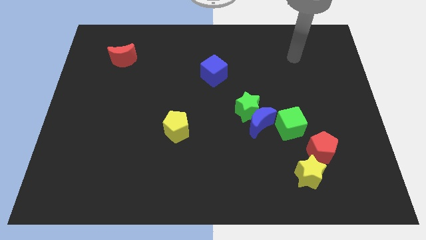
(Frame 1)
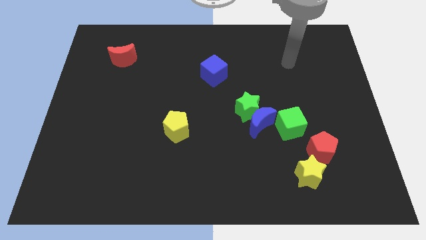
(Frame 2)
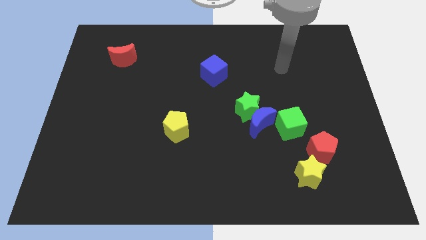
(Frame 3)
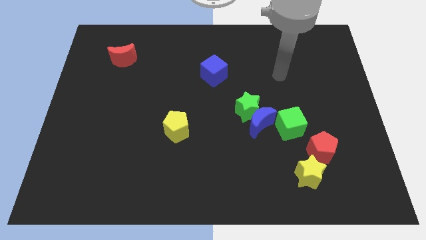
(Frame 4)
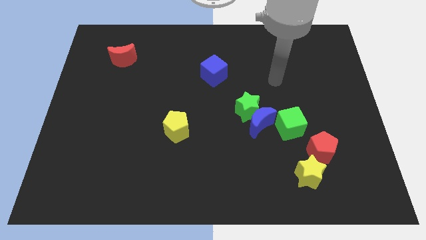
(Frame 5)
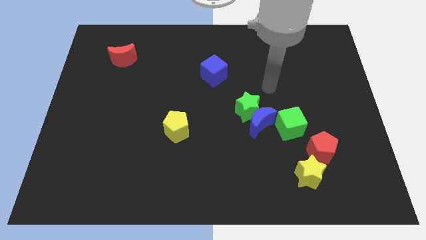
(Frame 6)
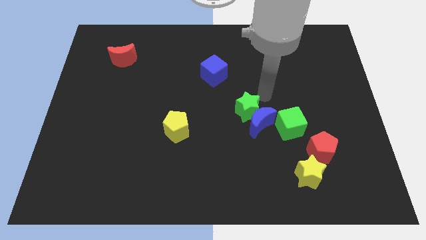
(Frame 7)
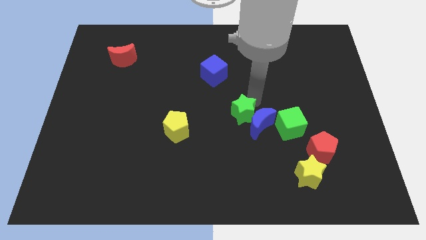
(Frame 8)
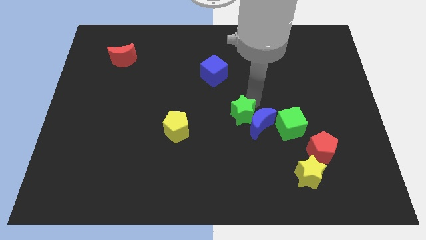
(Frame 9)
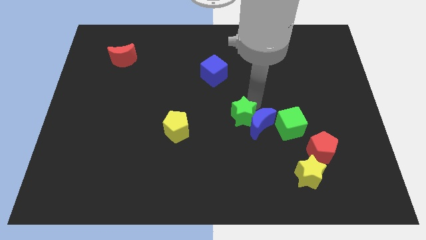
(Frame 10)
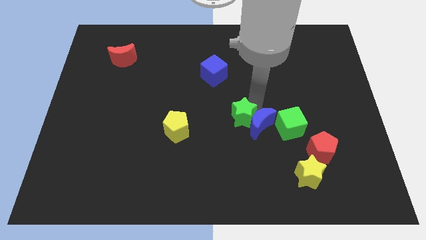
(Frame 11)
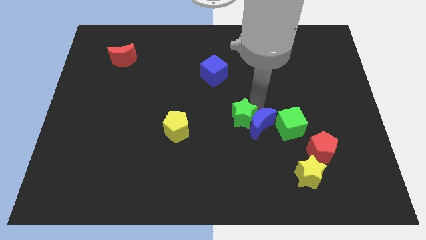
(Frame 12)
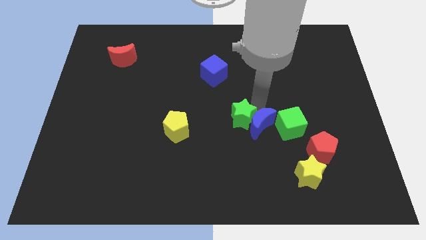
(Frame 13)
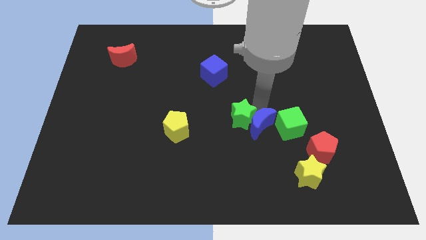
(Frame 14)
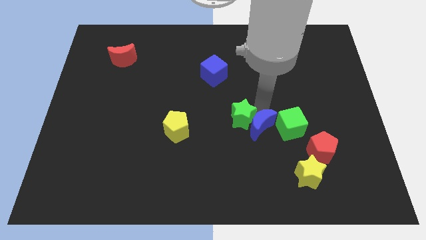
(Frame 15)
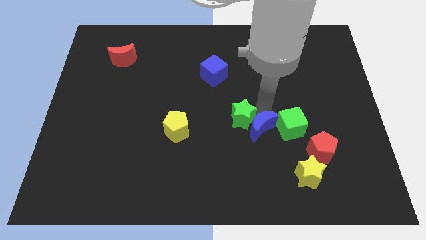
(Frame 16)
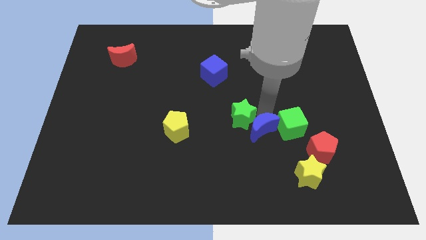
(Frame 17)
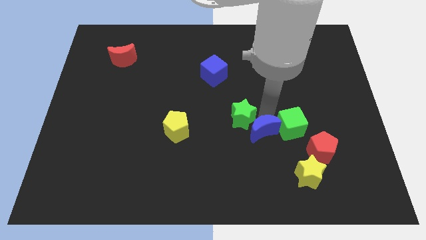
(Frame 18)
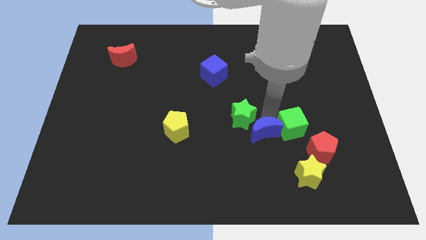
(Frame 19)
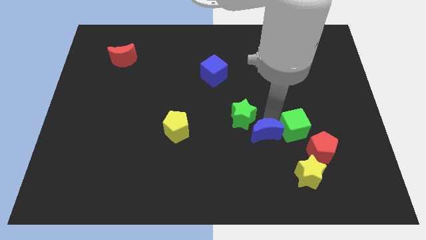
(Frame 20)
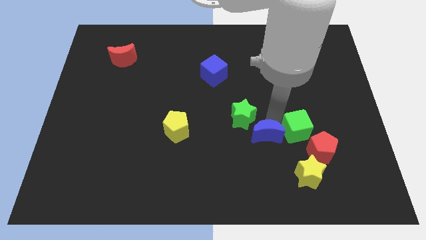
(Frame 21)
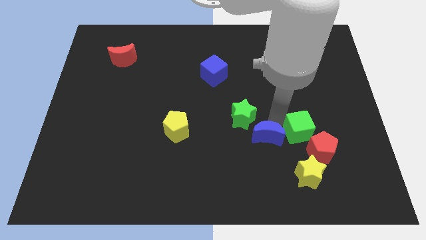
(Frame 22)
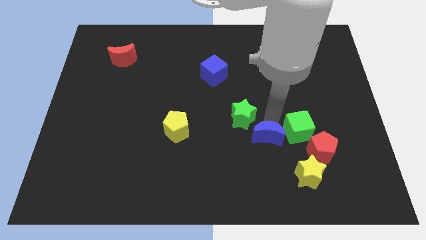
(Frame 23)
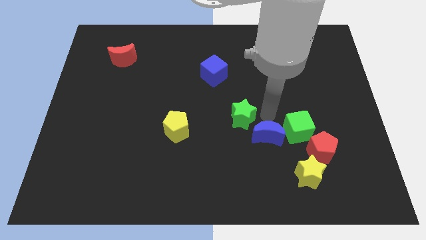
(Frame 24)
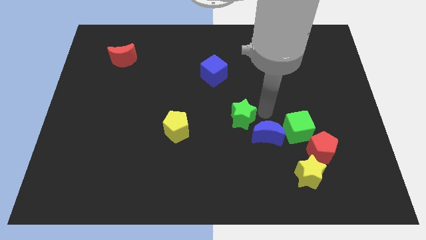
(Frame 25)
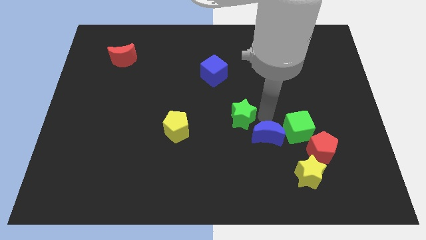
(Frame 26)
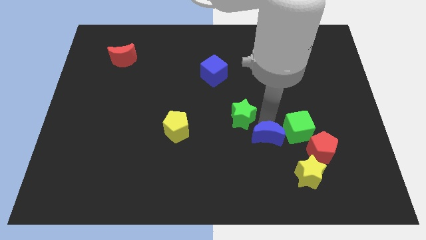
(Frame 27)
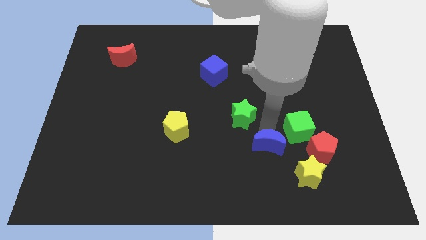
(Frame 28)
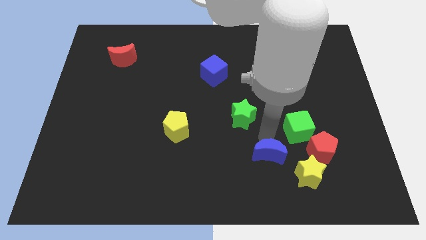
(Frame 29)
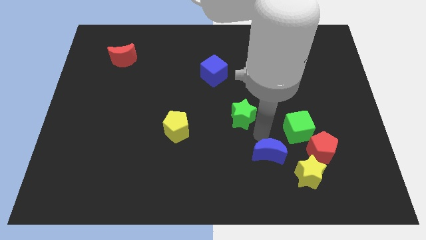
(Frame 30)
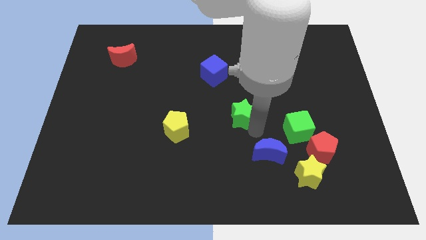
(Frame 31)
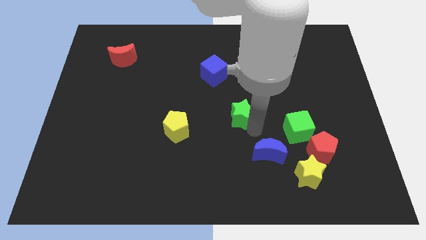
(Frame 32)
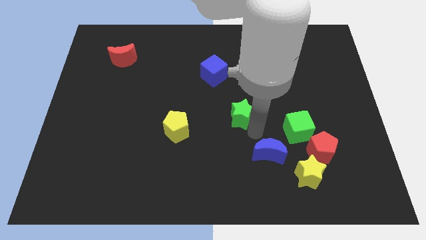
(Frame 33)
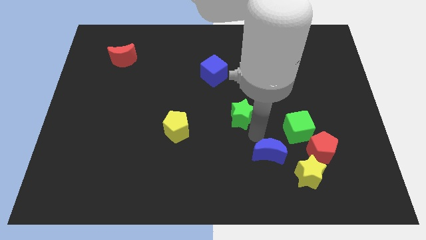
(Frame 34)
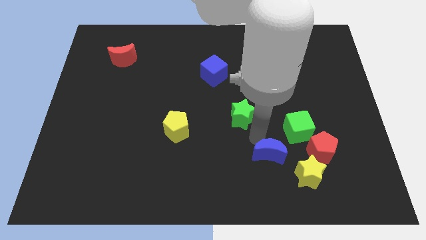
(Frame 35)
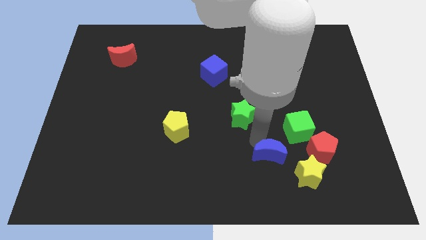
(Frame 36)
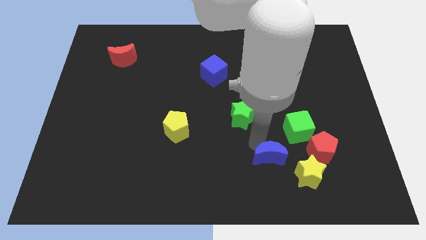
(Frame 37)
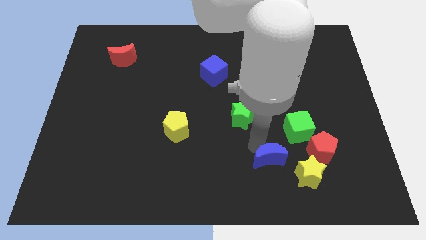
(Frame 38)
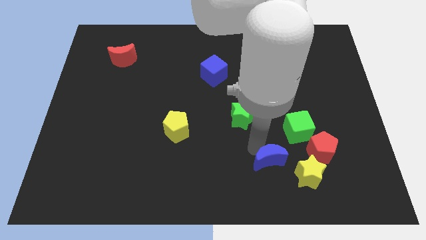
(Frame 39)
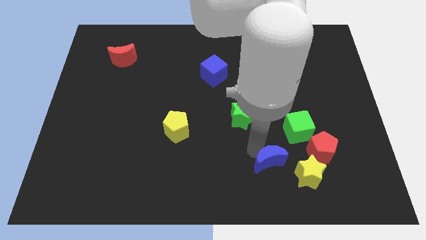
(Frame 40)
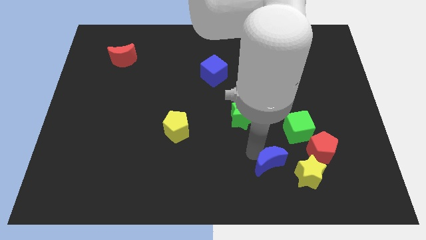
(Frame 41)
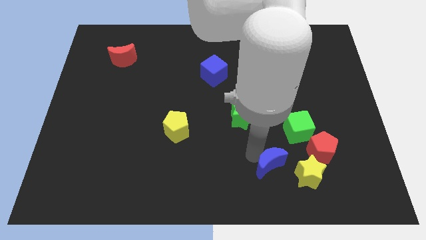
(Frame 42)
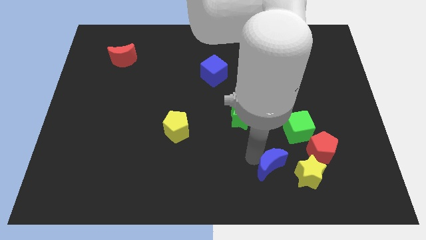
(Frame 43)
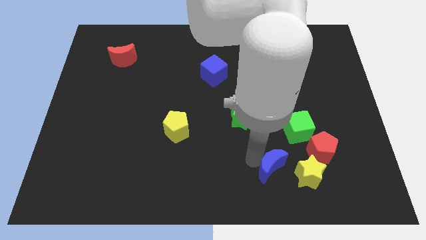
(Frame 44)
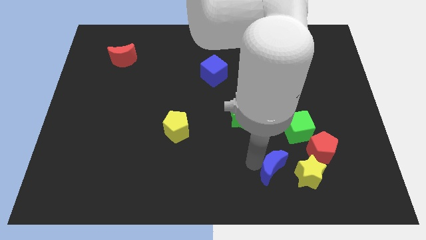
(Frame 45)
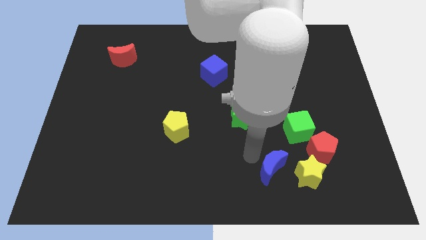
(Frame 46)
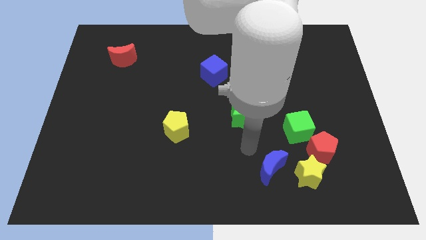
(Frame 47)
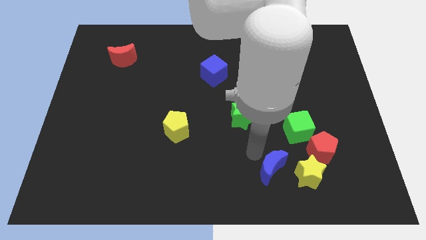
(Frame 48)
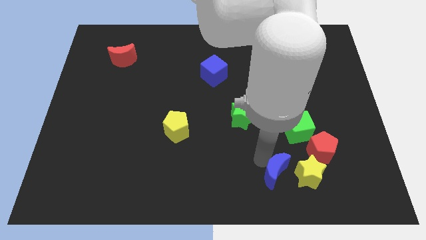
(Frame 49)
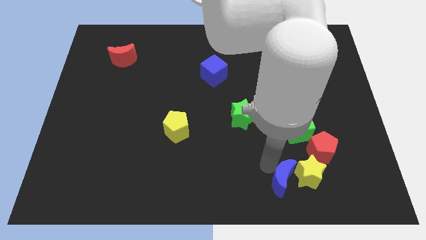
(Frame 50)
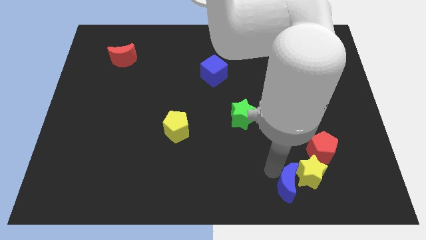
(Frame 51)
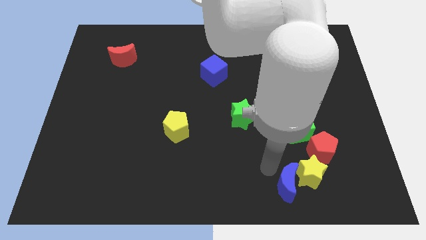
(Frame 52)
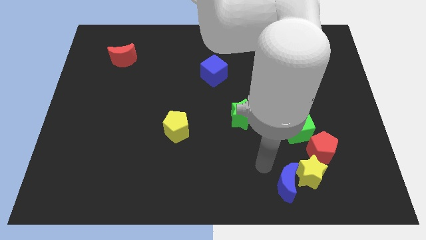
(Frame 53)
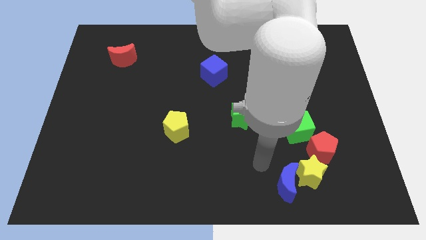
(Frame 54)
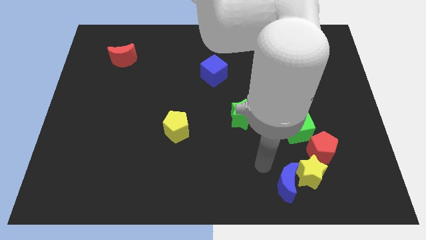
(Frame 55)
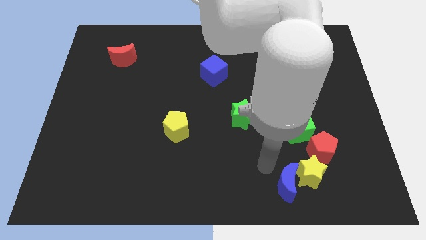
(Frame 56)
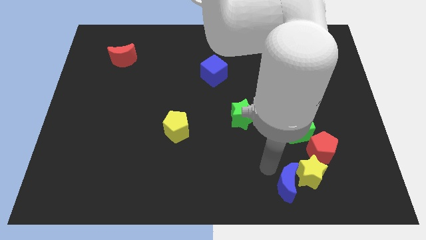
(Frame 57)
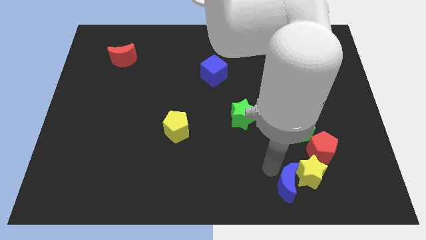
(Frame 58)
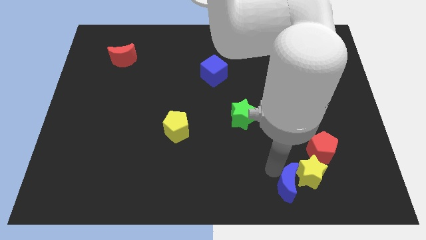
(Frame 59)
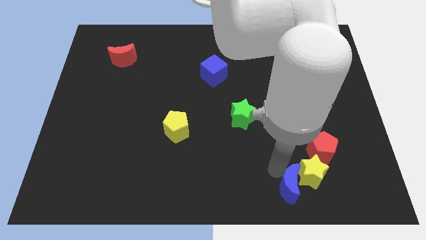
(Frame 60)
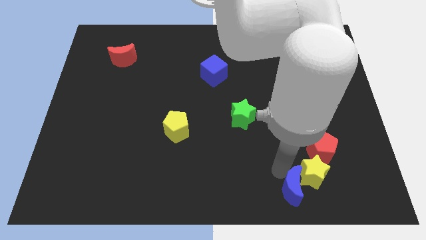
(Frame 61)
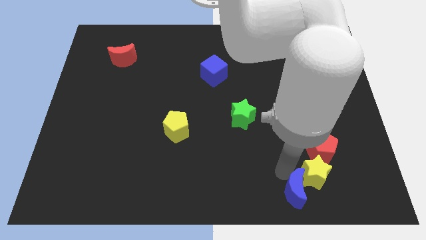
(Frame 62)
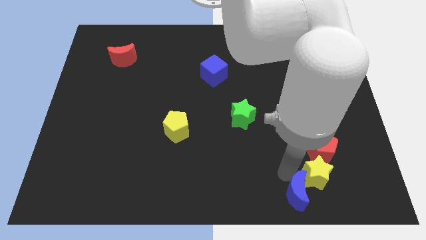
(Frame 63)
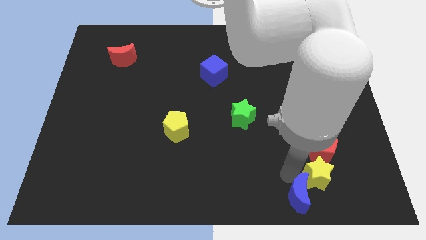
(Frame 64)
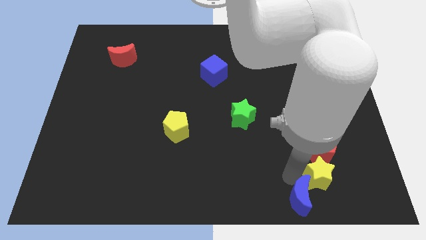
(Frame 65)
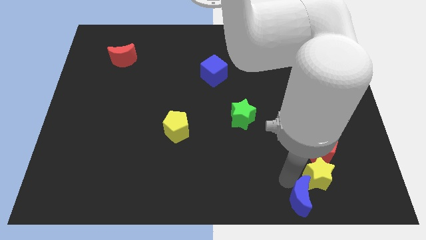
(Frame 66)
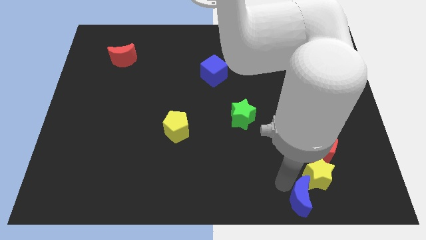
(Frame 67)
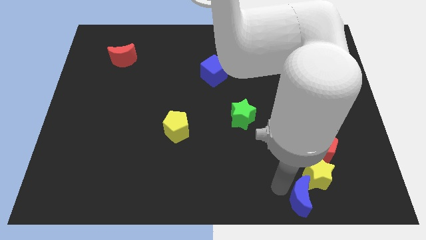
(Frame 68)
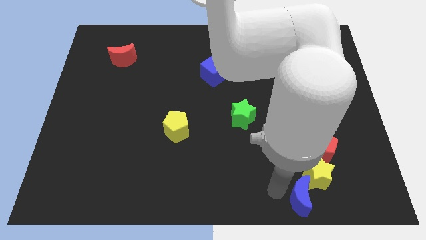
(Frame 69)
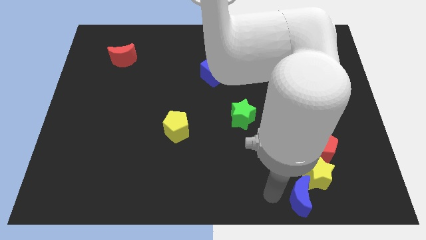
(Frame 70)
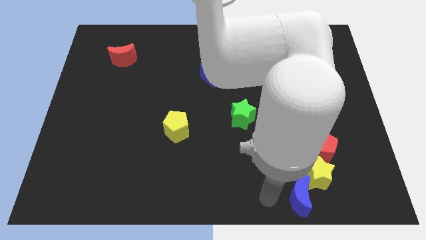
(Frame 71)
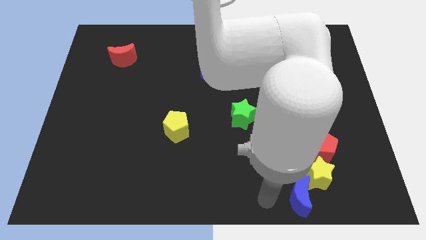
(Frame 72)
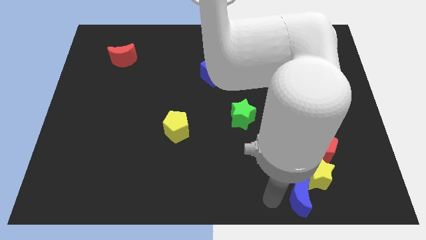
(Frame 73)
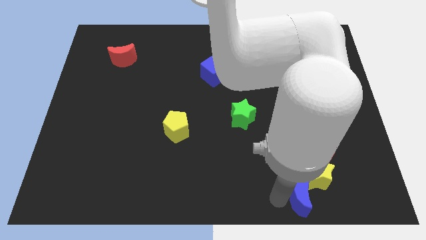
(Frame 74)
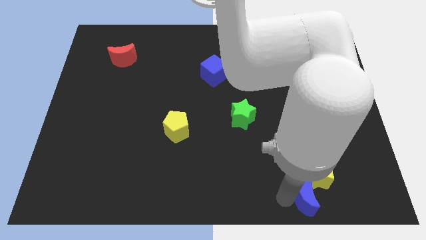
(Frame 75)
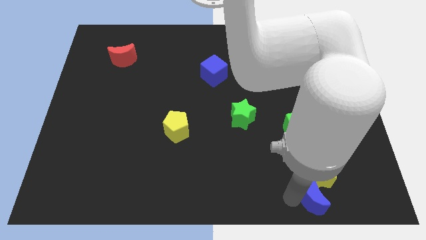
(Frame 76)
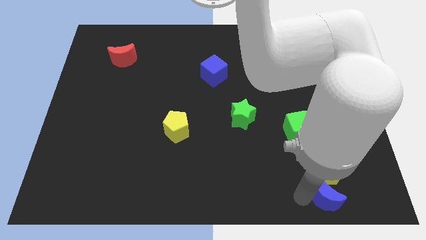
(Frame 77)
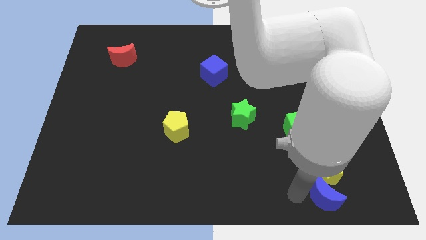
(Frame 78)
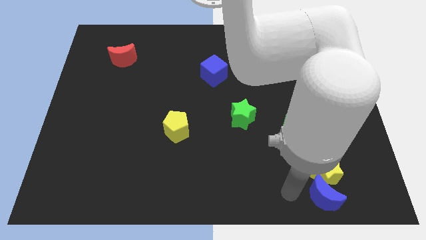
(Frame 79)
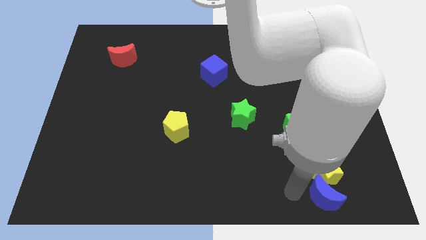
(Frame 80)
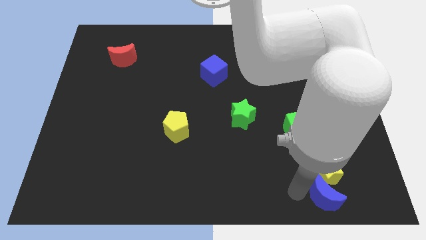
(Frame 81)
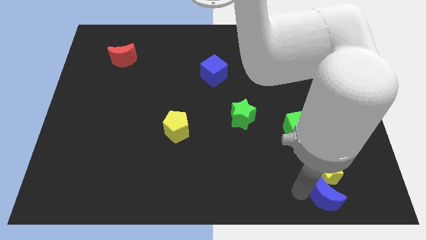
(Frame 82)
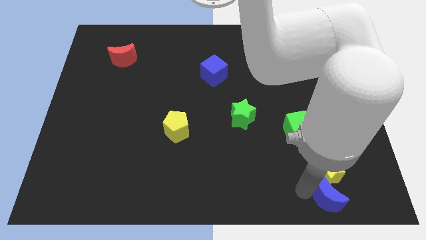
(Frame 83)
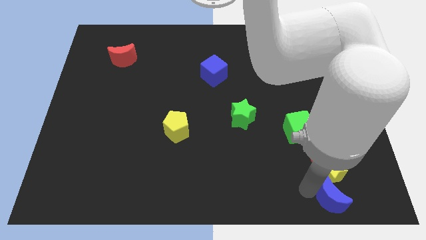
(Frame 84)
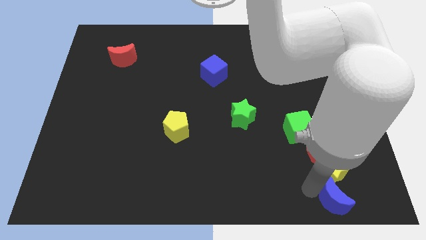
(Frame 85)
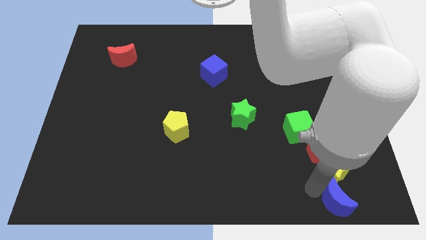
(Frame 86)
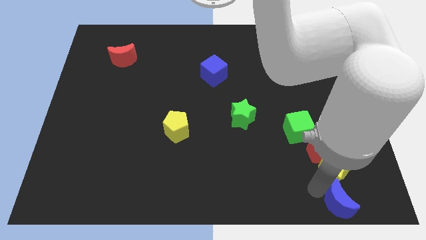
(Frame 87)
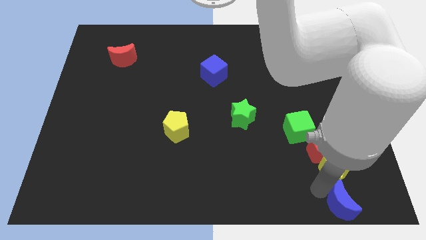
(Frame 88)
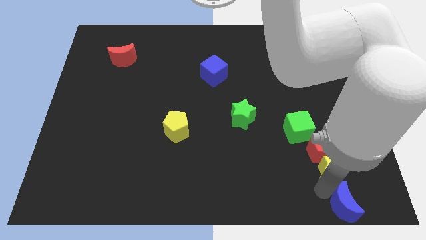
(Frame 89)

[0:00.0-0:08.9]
slide the blue moon to the bottom right of the board
